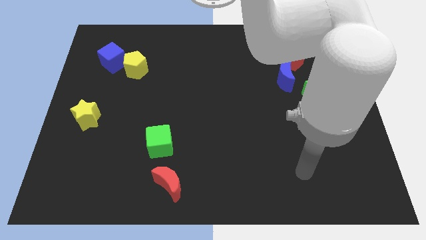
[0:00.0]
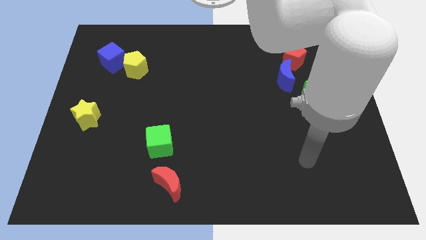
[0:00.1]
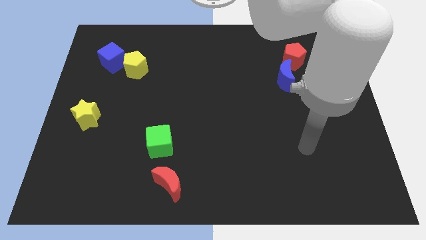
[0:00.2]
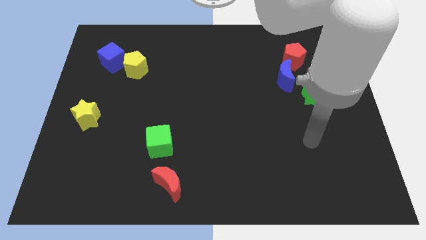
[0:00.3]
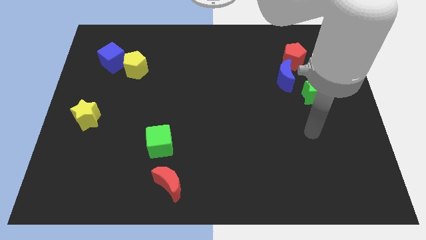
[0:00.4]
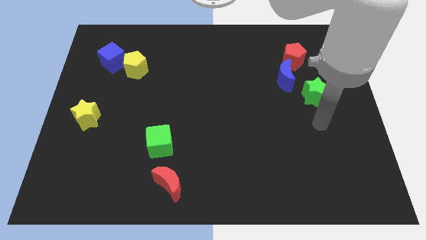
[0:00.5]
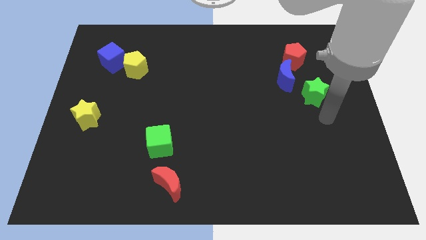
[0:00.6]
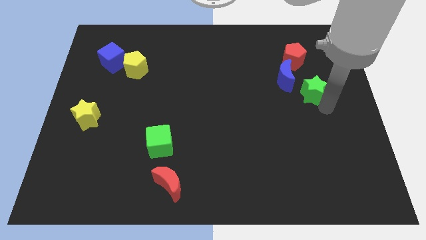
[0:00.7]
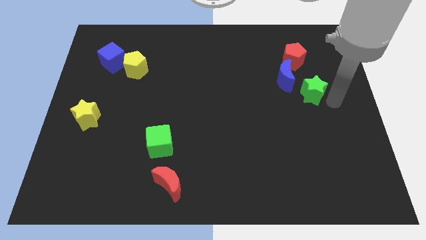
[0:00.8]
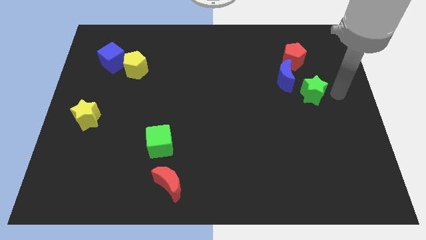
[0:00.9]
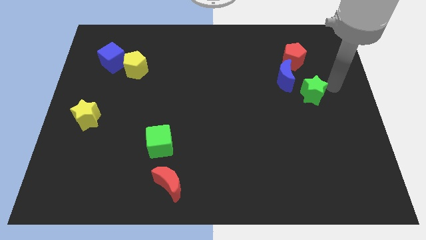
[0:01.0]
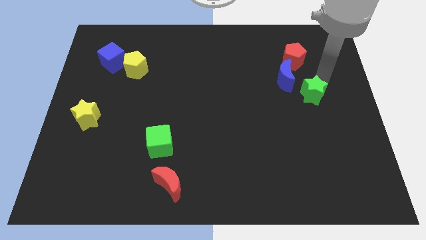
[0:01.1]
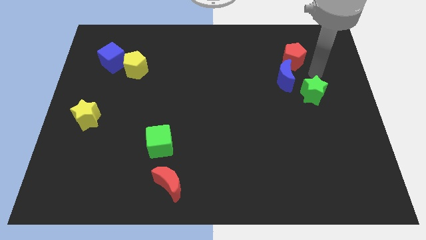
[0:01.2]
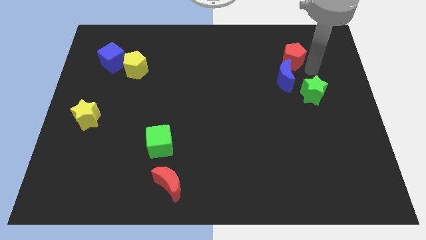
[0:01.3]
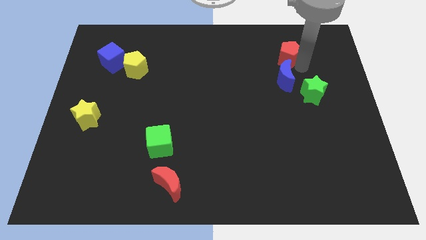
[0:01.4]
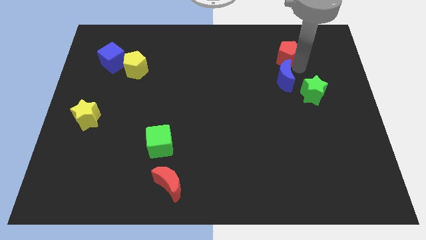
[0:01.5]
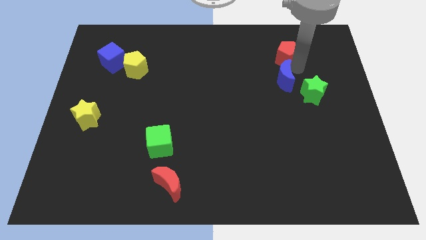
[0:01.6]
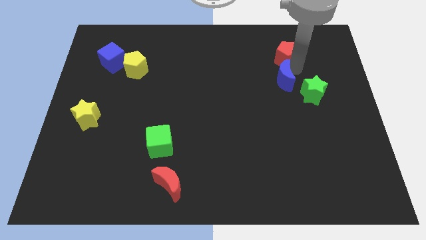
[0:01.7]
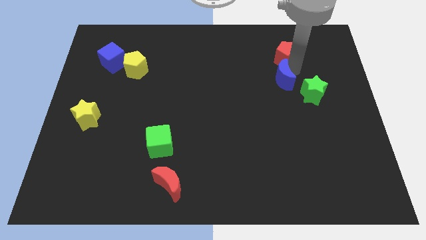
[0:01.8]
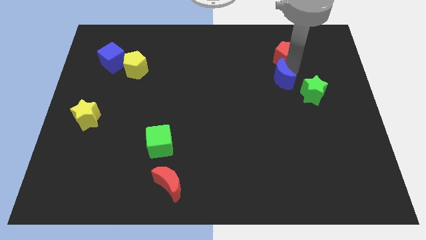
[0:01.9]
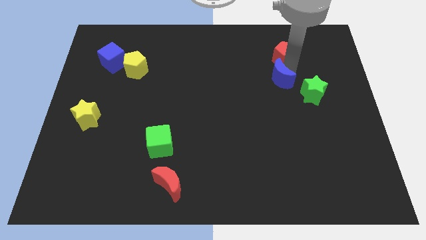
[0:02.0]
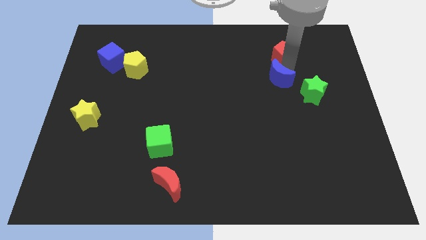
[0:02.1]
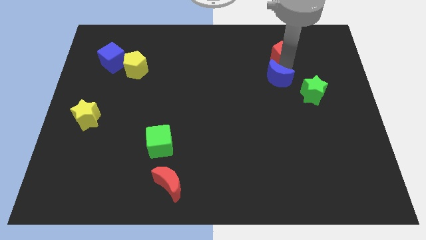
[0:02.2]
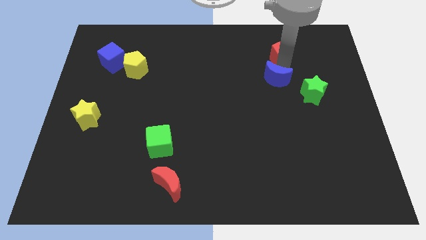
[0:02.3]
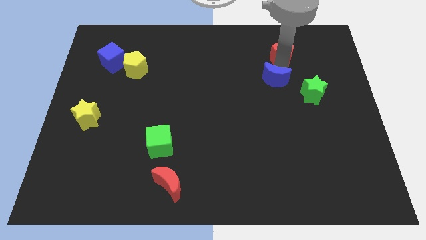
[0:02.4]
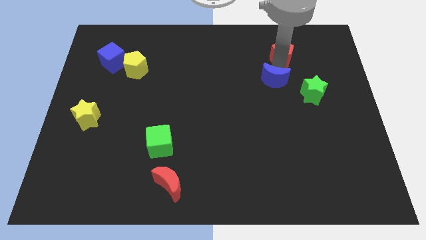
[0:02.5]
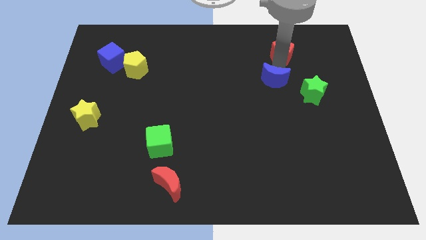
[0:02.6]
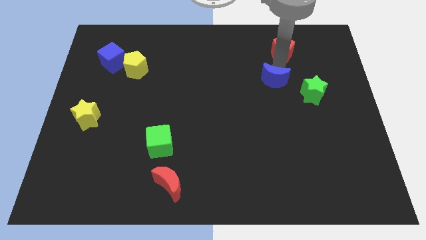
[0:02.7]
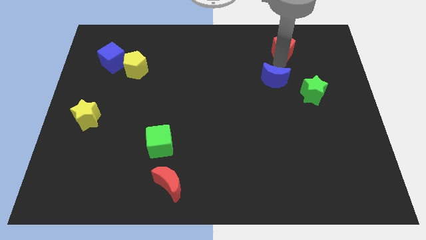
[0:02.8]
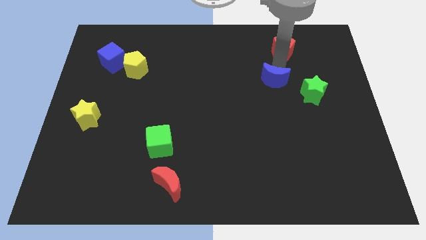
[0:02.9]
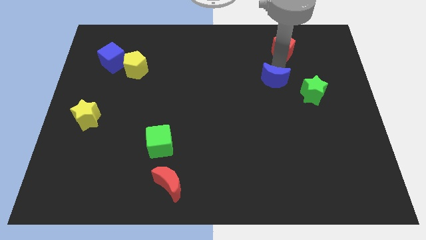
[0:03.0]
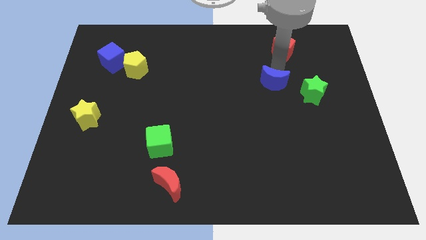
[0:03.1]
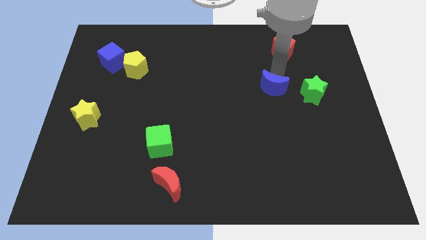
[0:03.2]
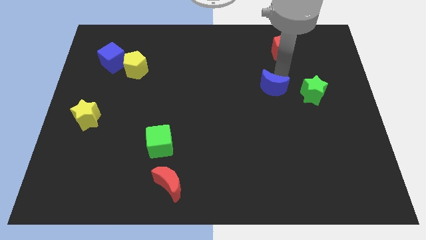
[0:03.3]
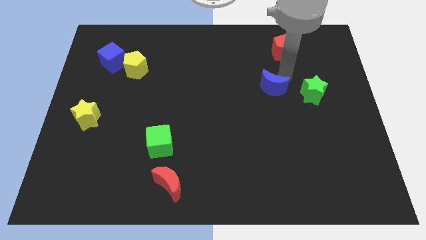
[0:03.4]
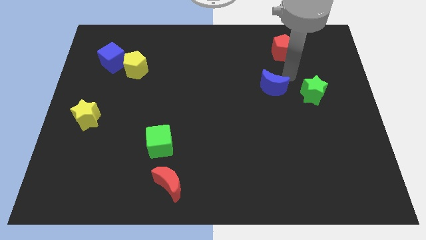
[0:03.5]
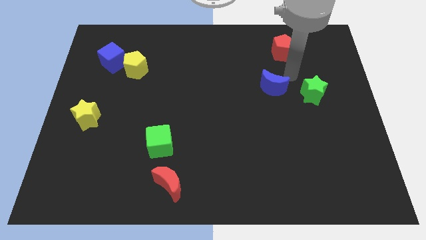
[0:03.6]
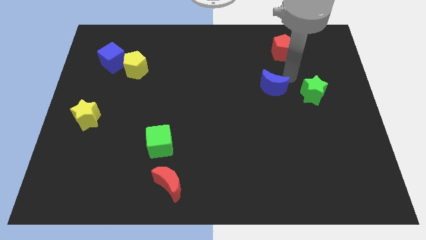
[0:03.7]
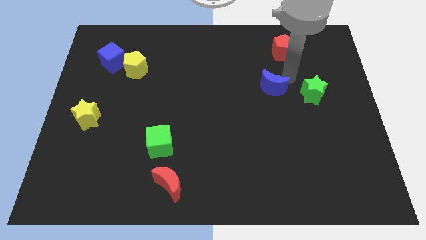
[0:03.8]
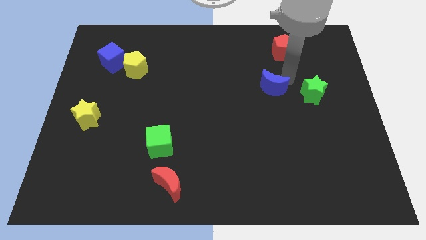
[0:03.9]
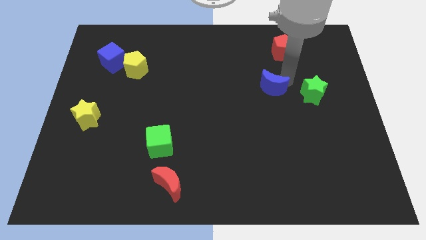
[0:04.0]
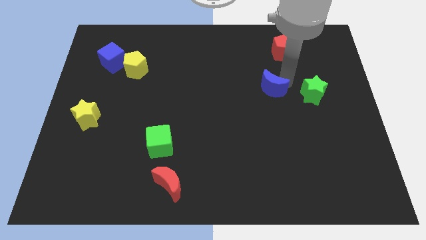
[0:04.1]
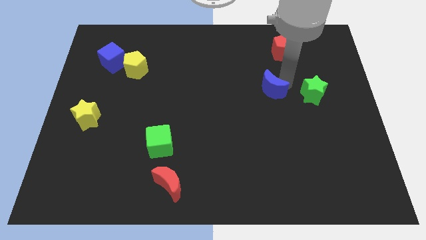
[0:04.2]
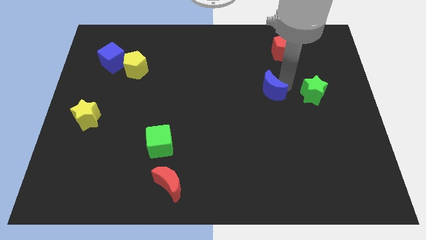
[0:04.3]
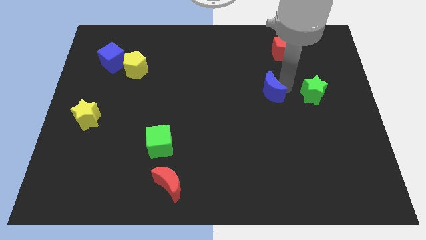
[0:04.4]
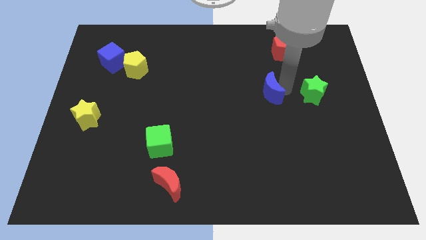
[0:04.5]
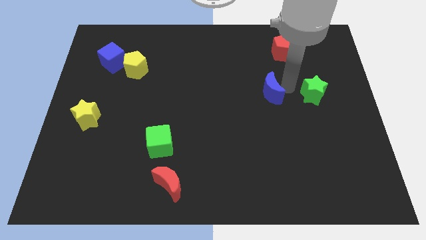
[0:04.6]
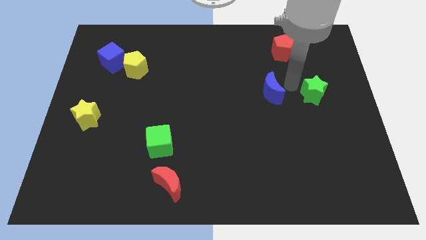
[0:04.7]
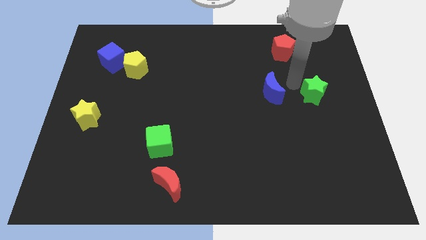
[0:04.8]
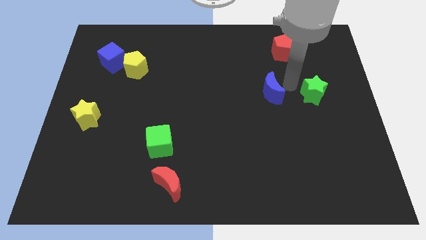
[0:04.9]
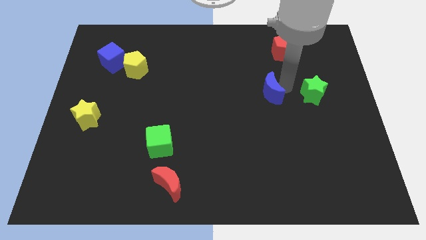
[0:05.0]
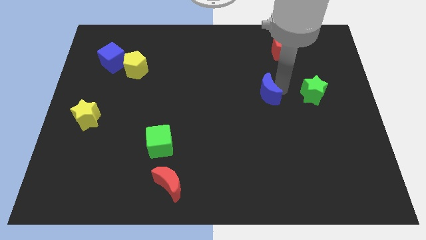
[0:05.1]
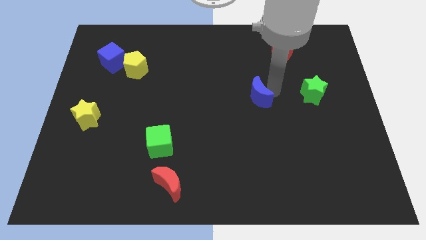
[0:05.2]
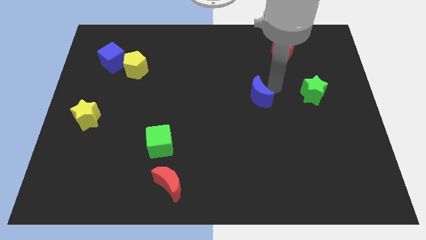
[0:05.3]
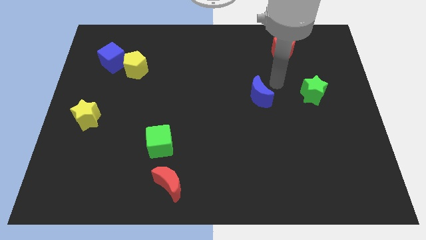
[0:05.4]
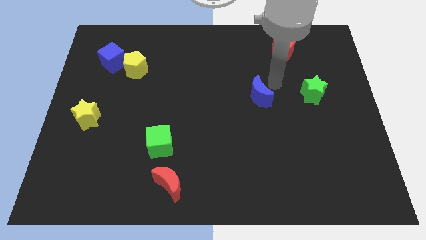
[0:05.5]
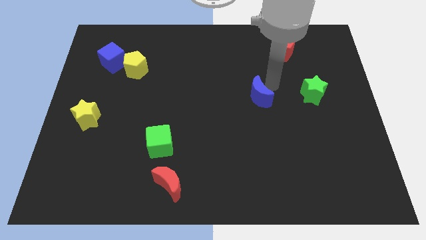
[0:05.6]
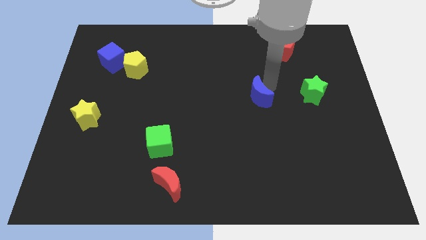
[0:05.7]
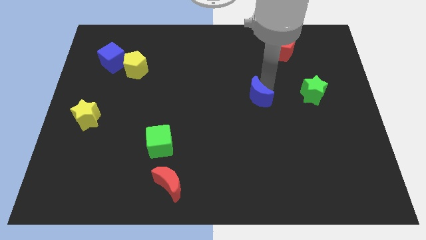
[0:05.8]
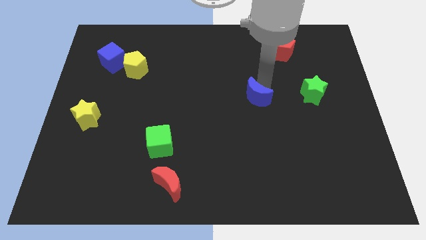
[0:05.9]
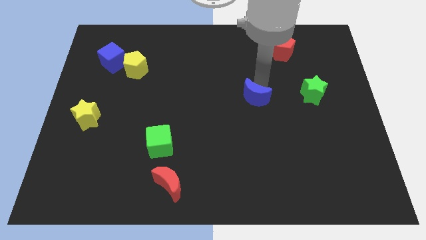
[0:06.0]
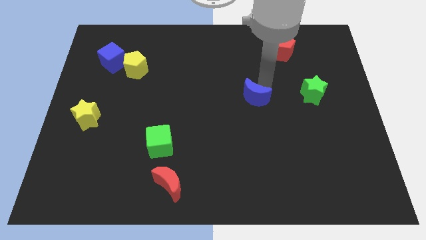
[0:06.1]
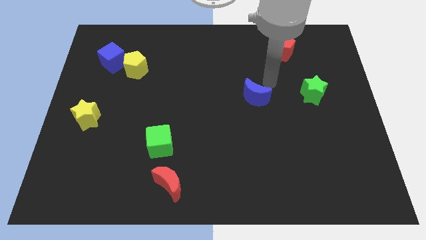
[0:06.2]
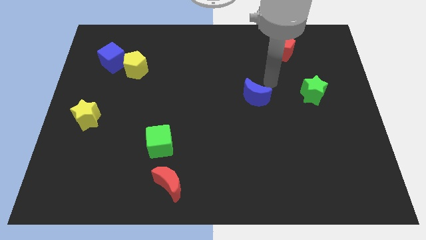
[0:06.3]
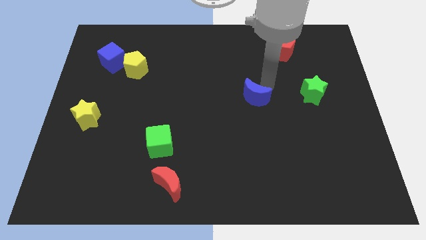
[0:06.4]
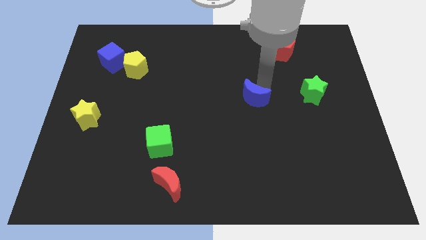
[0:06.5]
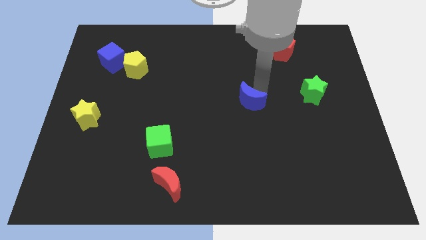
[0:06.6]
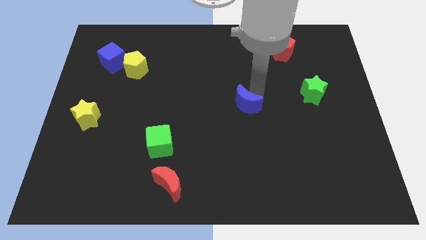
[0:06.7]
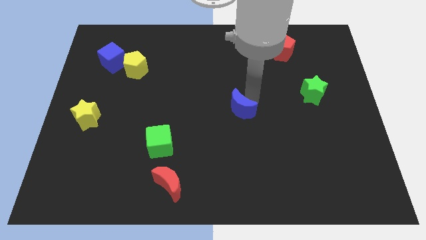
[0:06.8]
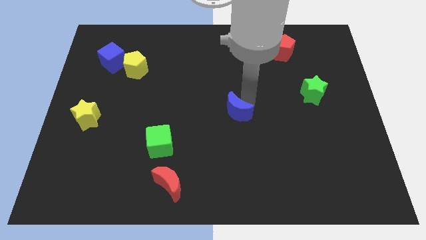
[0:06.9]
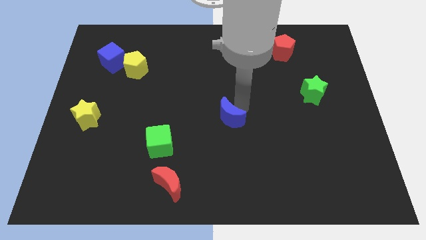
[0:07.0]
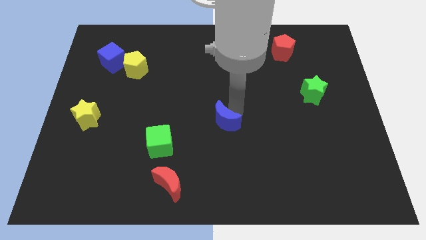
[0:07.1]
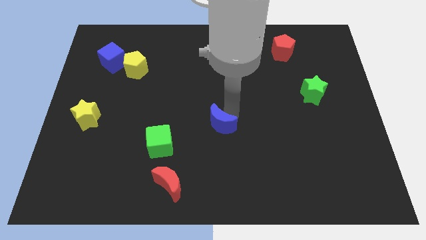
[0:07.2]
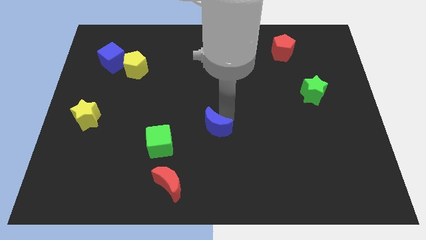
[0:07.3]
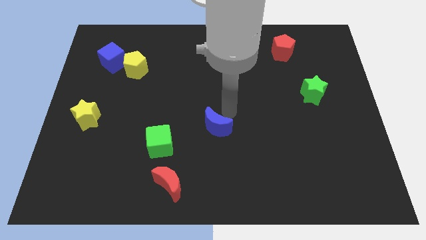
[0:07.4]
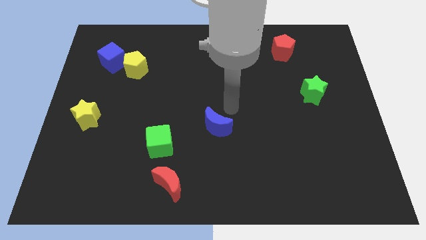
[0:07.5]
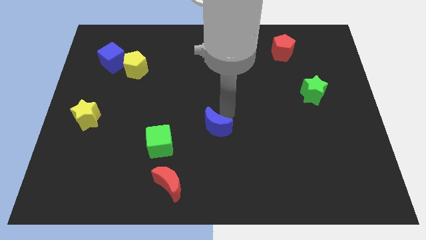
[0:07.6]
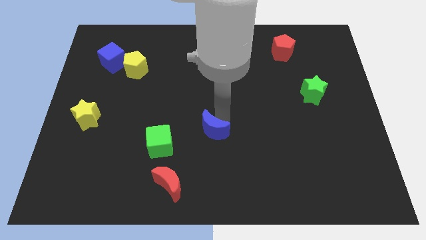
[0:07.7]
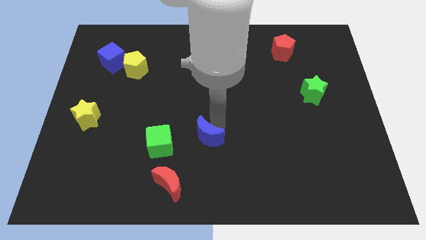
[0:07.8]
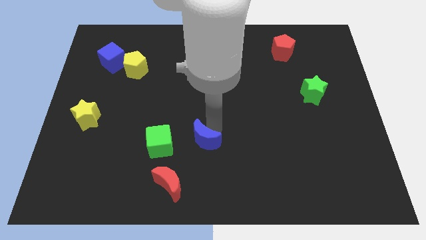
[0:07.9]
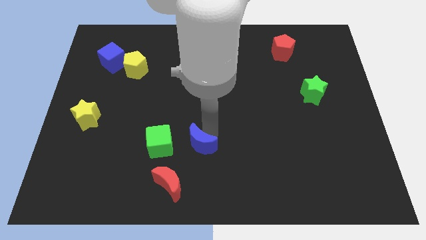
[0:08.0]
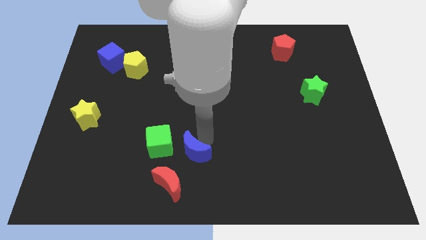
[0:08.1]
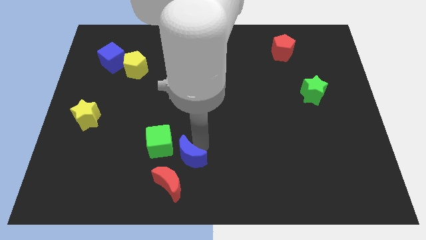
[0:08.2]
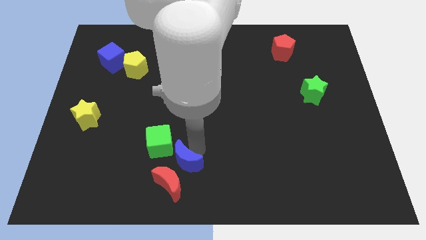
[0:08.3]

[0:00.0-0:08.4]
move the blue moon towards the red moon
